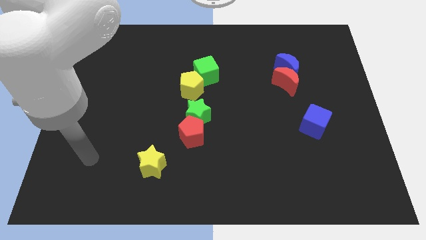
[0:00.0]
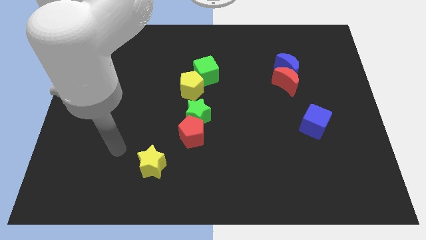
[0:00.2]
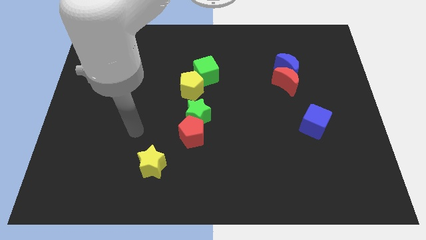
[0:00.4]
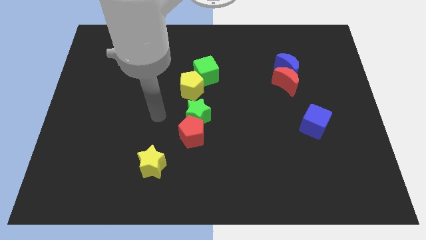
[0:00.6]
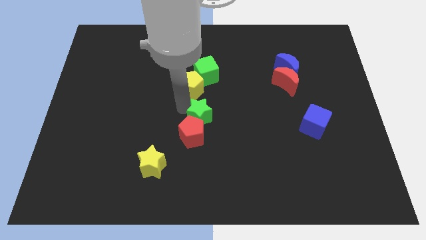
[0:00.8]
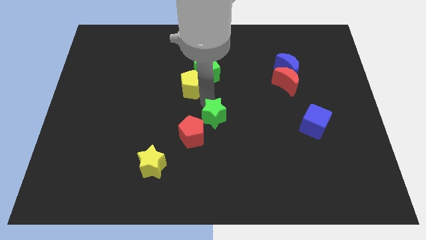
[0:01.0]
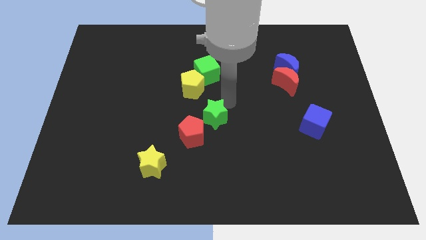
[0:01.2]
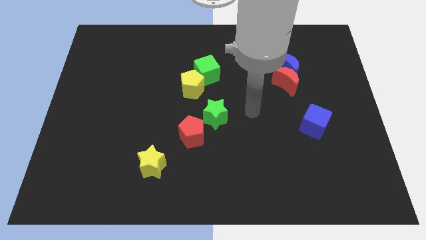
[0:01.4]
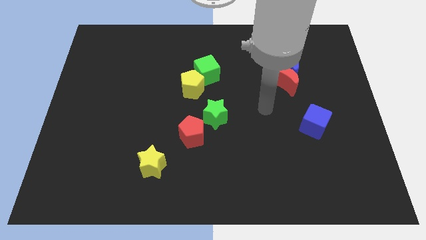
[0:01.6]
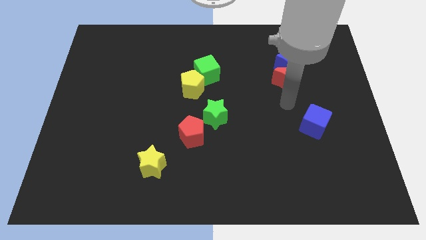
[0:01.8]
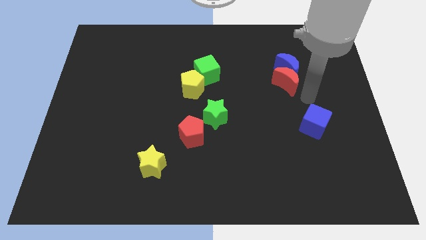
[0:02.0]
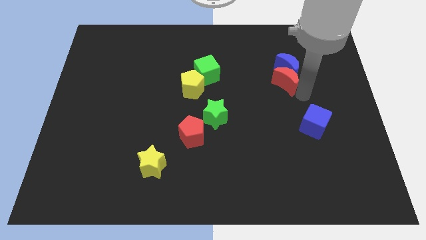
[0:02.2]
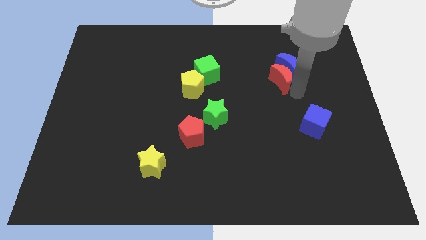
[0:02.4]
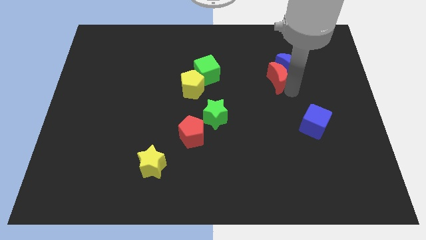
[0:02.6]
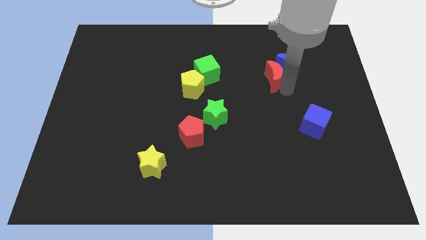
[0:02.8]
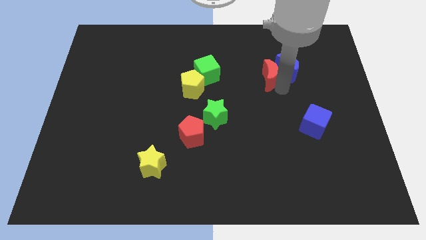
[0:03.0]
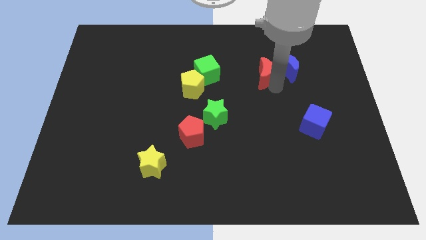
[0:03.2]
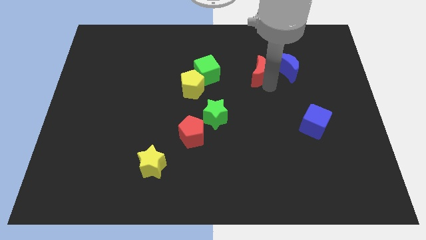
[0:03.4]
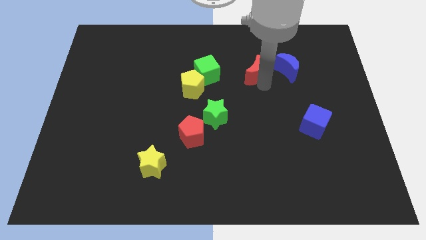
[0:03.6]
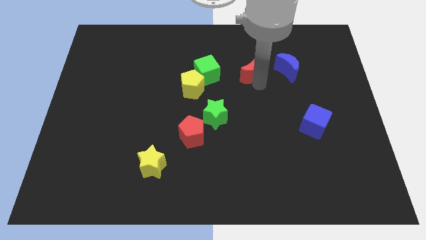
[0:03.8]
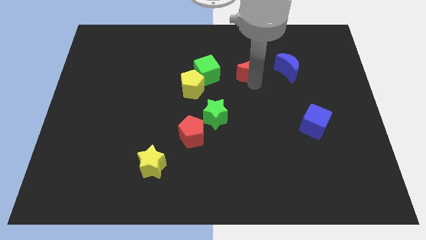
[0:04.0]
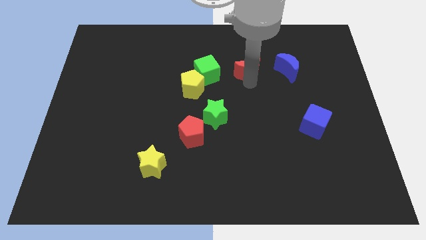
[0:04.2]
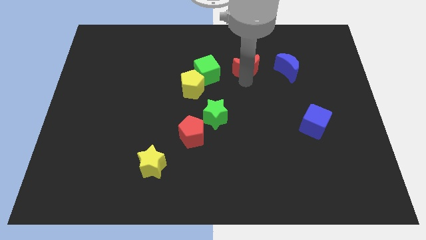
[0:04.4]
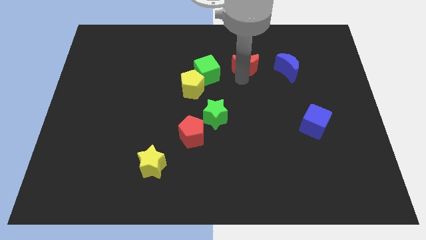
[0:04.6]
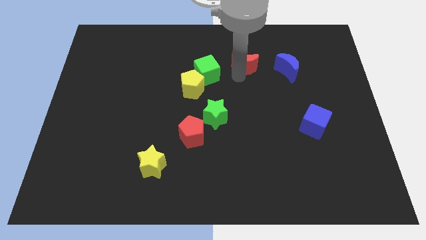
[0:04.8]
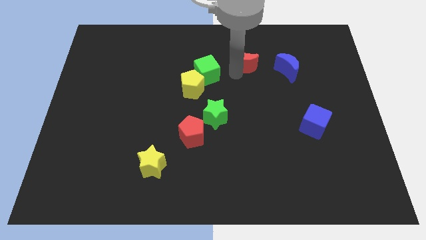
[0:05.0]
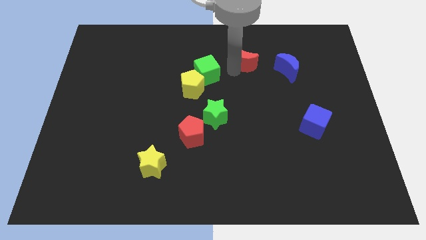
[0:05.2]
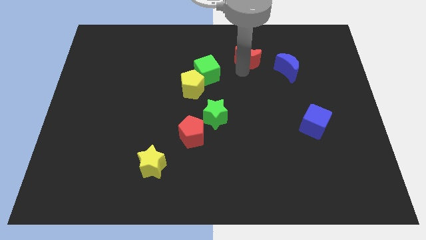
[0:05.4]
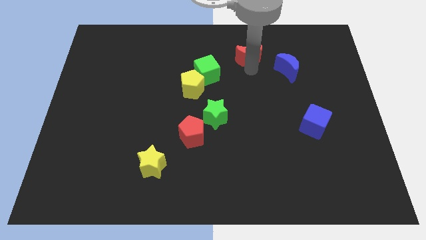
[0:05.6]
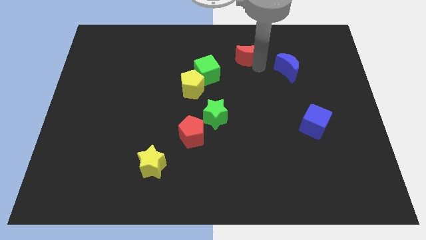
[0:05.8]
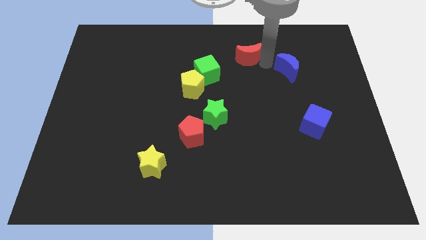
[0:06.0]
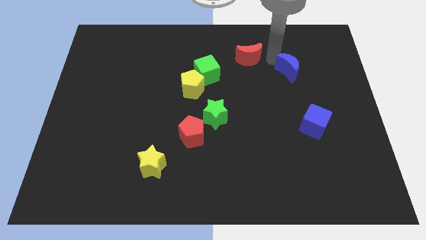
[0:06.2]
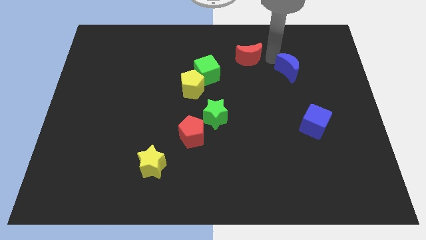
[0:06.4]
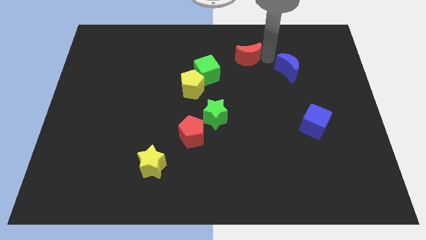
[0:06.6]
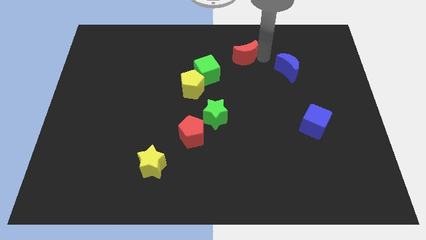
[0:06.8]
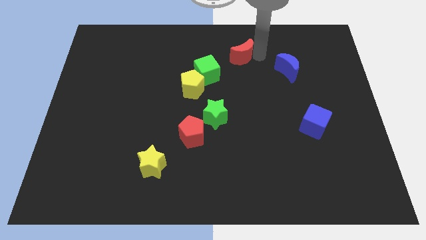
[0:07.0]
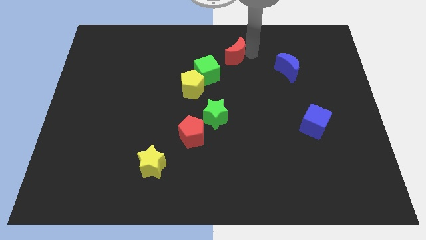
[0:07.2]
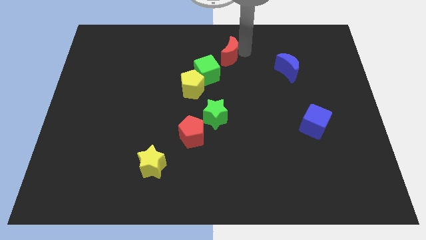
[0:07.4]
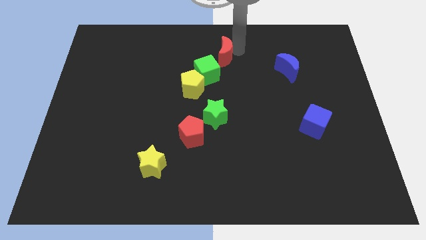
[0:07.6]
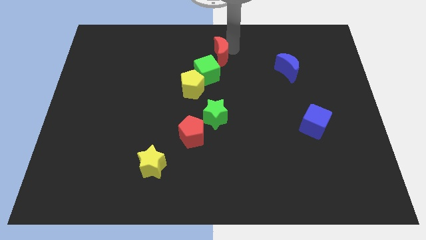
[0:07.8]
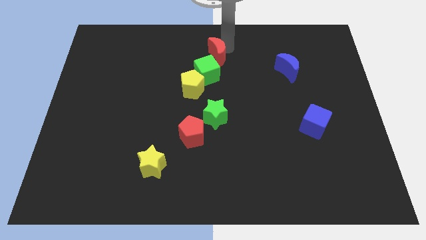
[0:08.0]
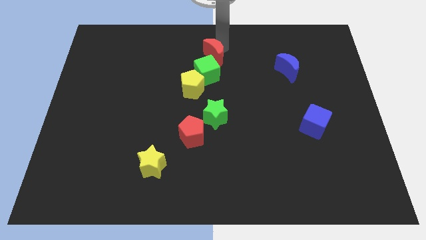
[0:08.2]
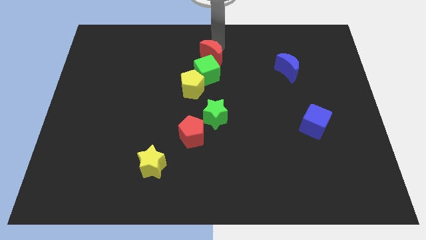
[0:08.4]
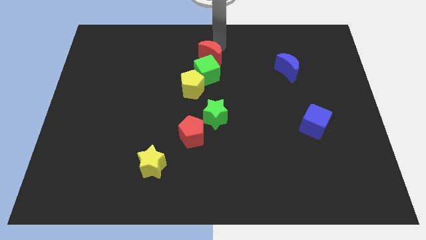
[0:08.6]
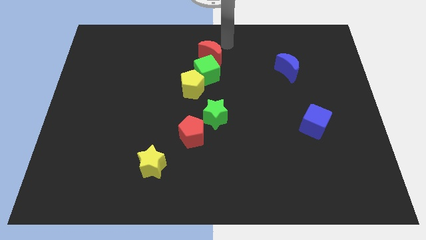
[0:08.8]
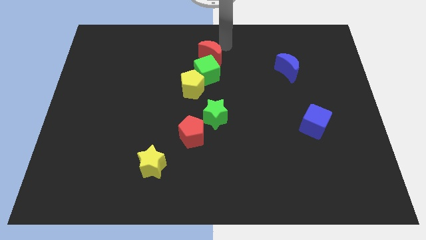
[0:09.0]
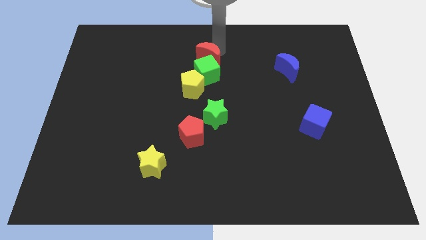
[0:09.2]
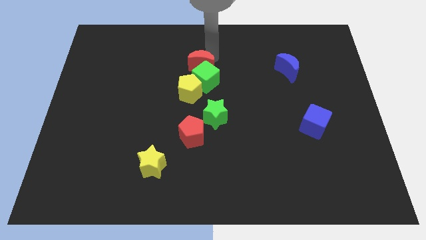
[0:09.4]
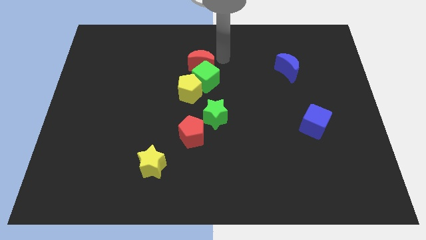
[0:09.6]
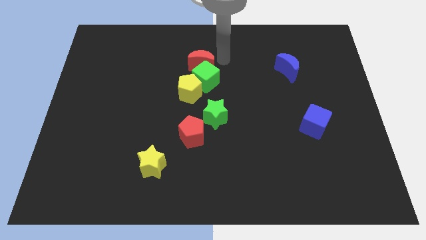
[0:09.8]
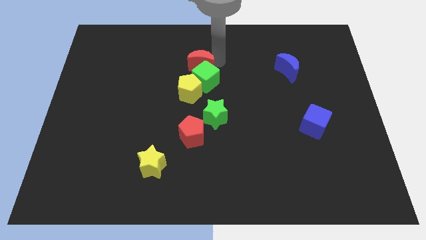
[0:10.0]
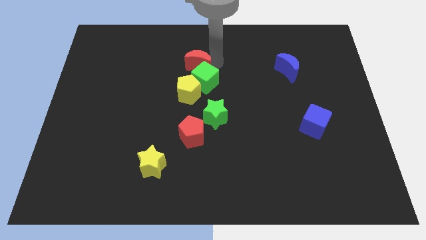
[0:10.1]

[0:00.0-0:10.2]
slide the red moon left

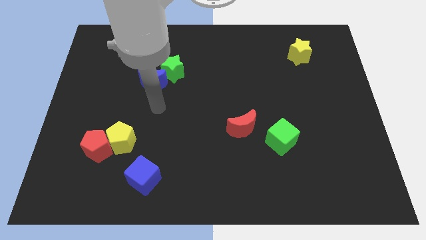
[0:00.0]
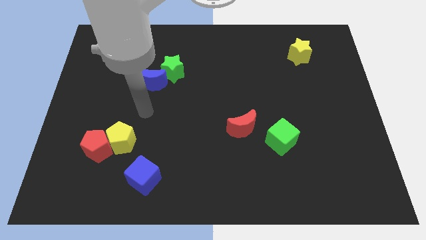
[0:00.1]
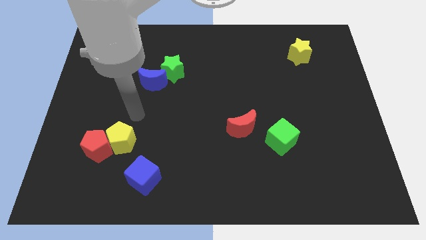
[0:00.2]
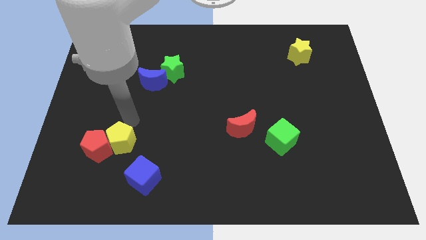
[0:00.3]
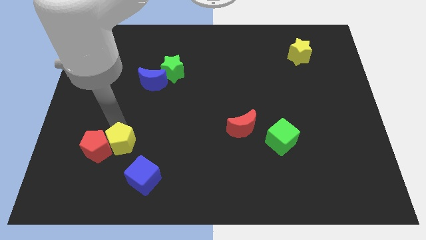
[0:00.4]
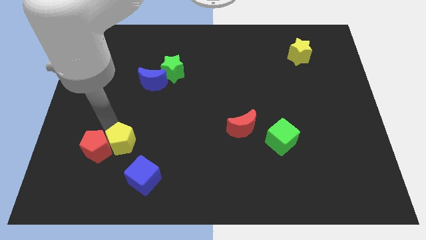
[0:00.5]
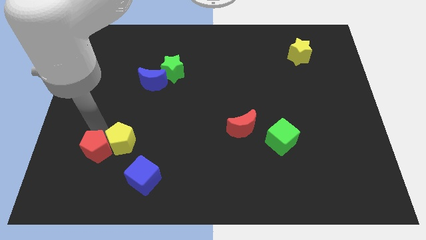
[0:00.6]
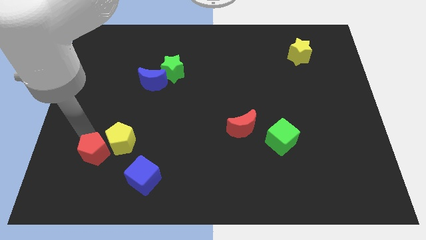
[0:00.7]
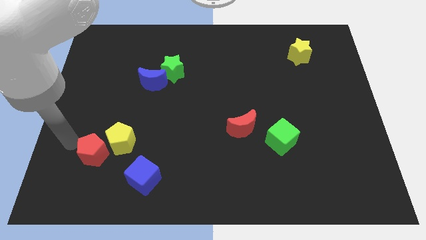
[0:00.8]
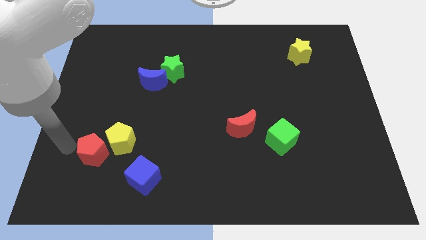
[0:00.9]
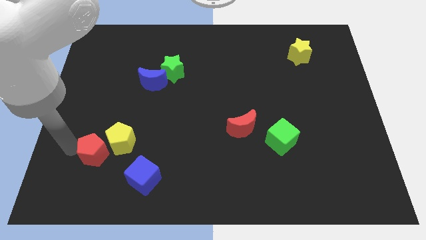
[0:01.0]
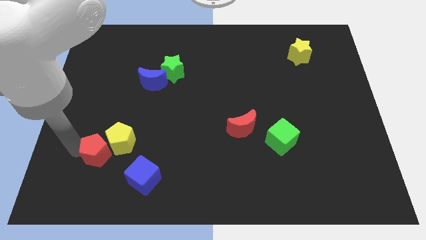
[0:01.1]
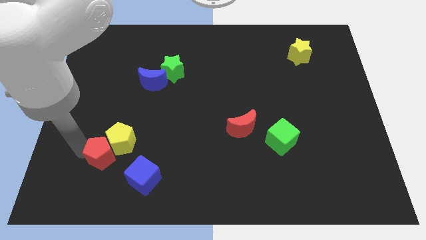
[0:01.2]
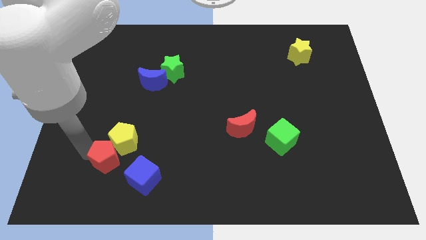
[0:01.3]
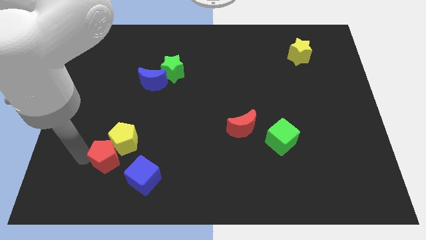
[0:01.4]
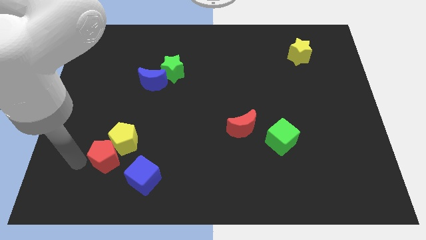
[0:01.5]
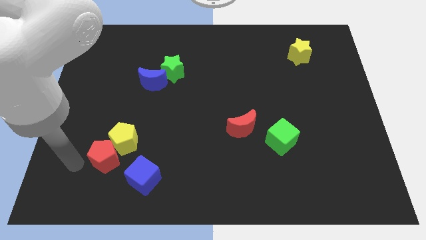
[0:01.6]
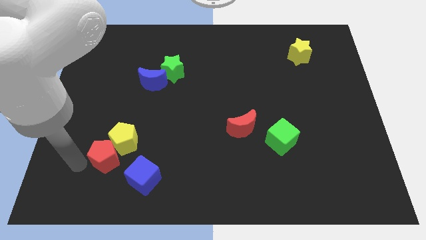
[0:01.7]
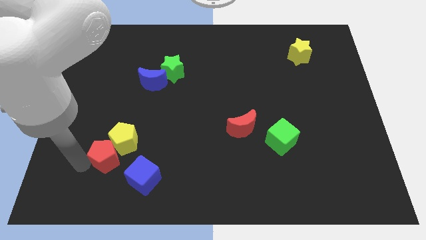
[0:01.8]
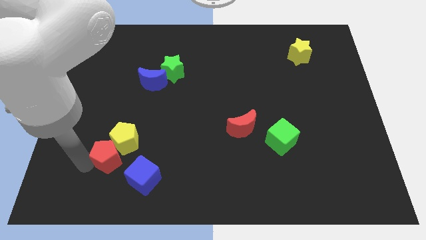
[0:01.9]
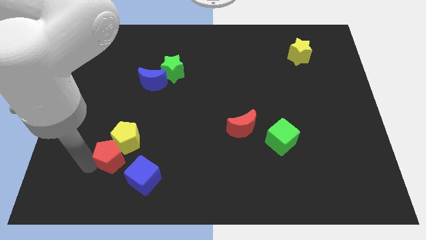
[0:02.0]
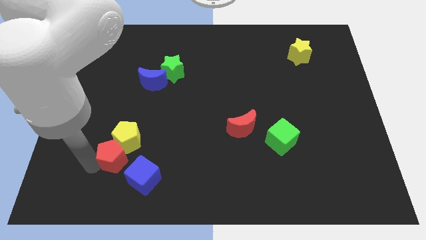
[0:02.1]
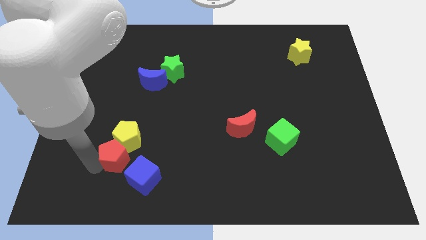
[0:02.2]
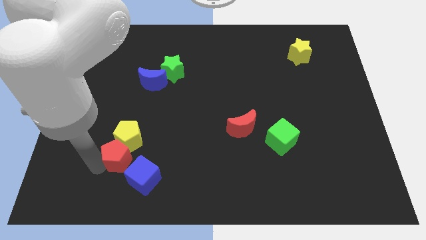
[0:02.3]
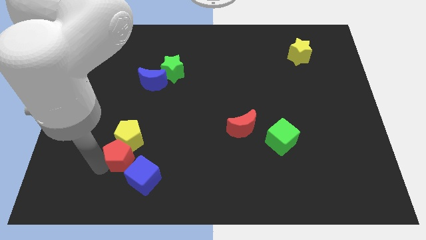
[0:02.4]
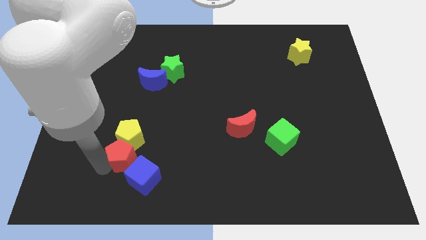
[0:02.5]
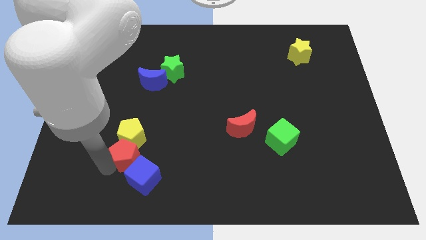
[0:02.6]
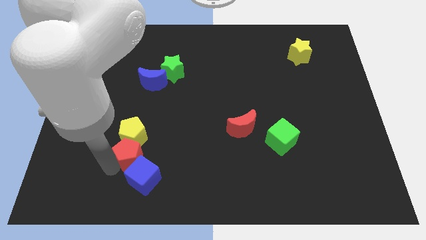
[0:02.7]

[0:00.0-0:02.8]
move the red pentagon slightly to the right

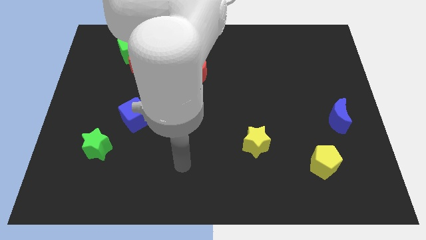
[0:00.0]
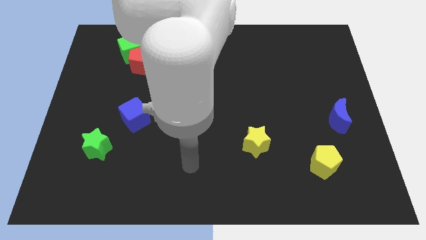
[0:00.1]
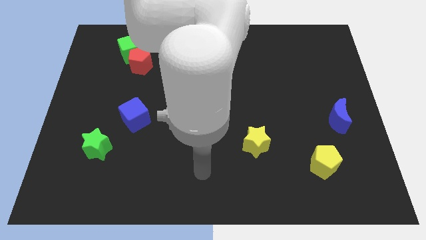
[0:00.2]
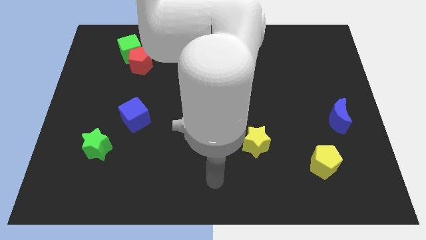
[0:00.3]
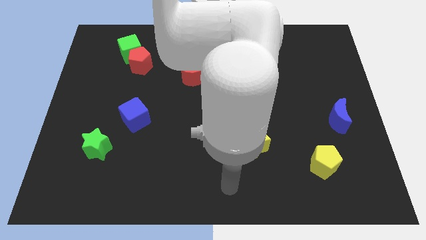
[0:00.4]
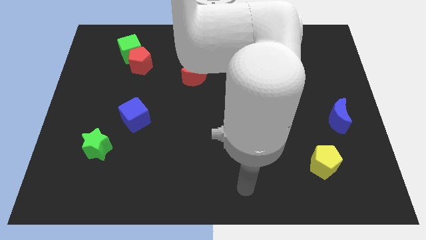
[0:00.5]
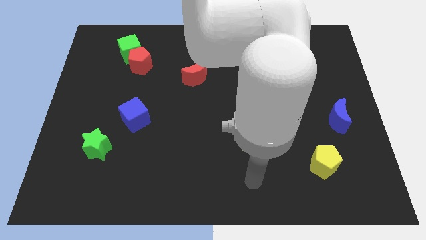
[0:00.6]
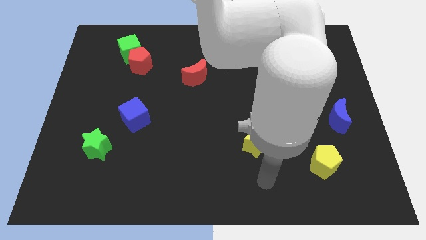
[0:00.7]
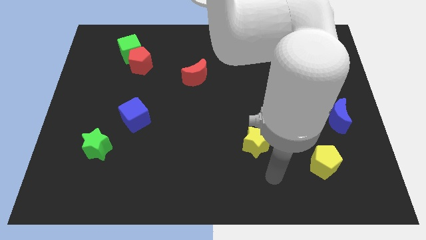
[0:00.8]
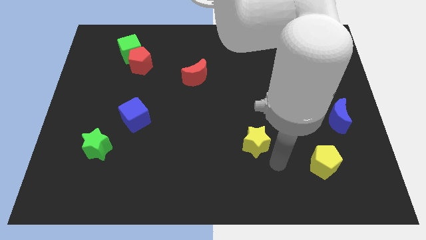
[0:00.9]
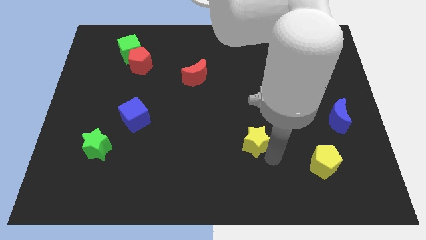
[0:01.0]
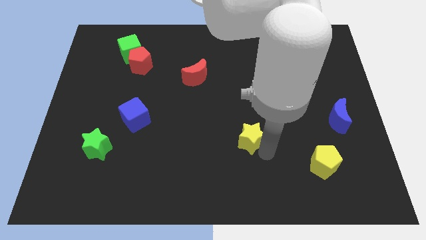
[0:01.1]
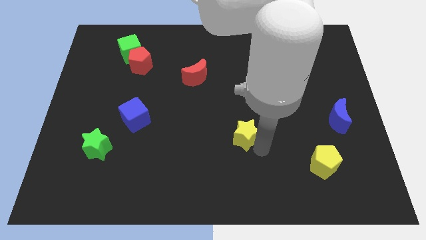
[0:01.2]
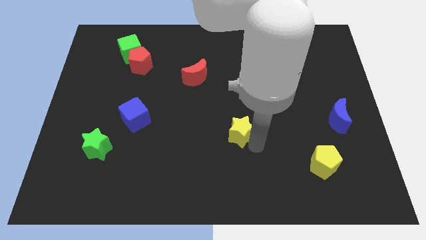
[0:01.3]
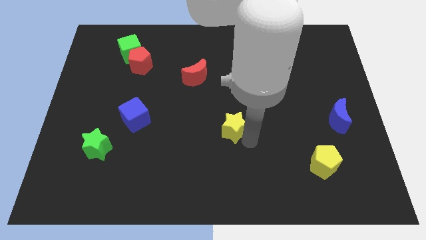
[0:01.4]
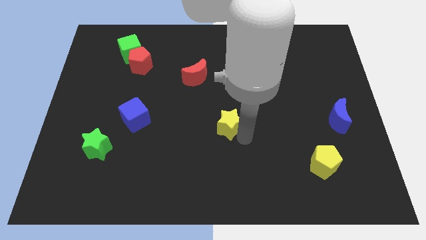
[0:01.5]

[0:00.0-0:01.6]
slide the yellow star somewhat upwards and then to the left
